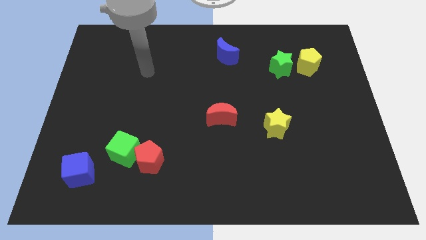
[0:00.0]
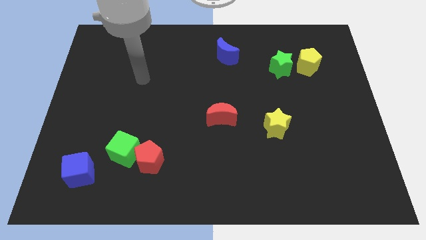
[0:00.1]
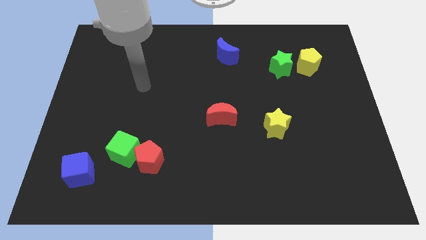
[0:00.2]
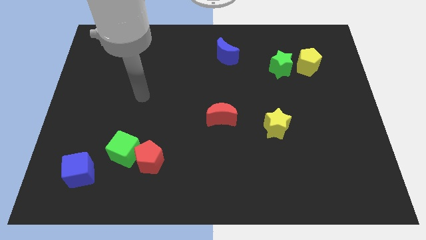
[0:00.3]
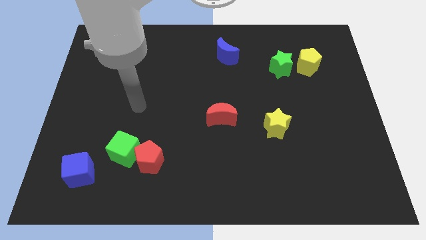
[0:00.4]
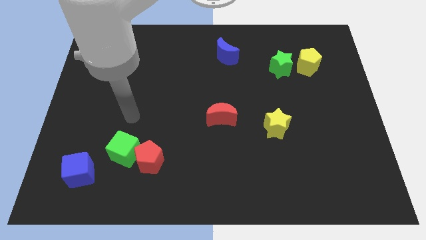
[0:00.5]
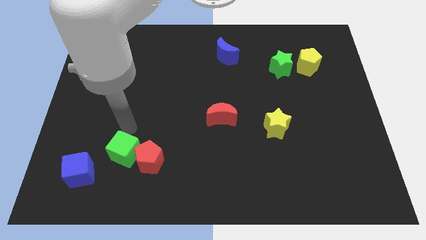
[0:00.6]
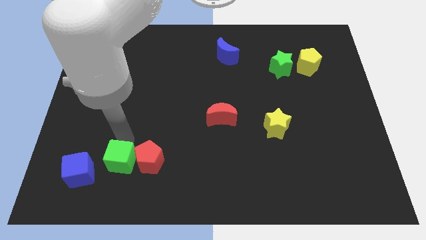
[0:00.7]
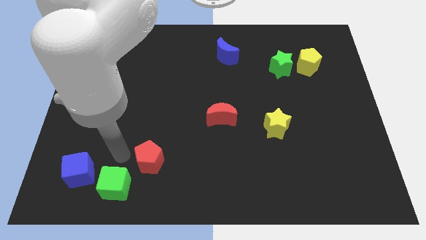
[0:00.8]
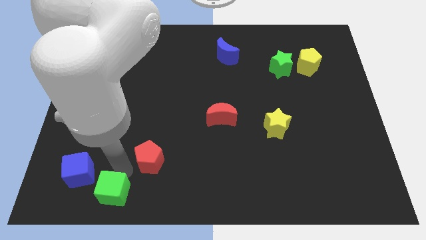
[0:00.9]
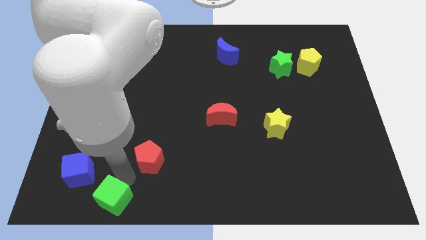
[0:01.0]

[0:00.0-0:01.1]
move the red pentagon away from the green cube

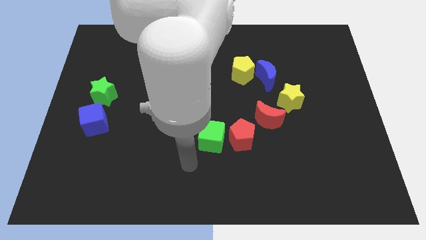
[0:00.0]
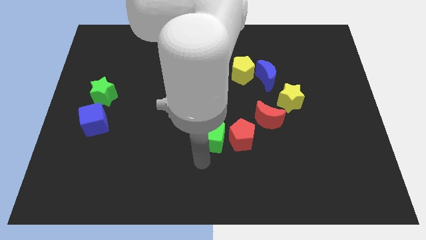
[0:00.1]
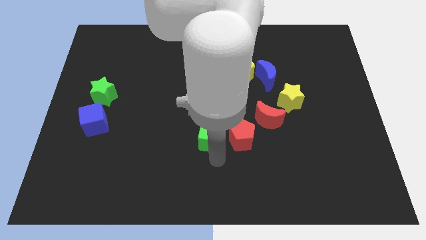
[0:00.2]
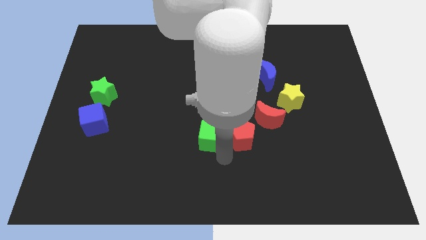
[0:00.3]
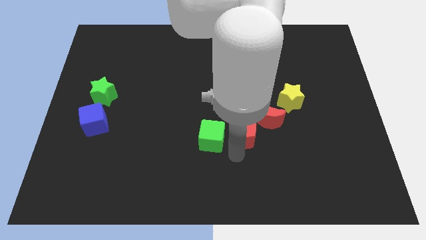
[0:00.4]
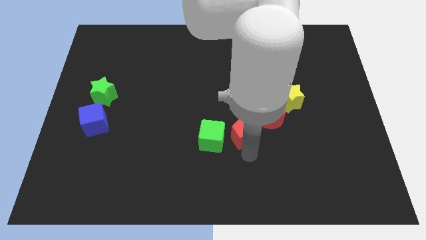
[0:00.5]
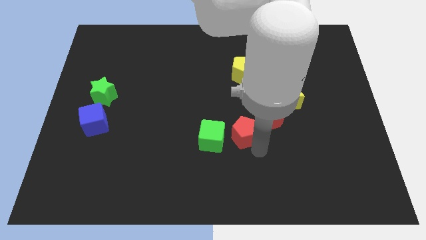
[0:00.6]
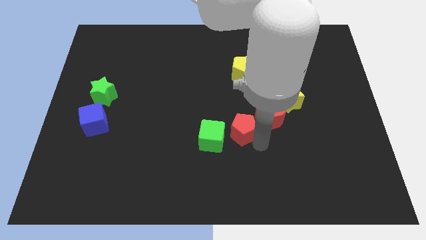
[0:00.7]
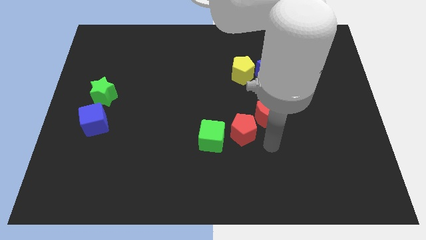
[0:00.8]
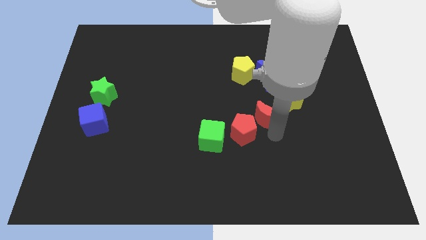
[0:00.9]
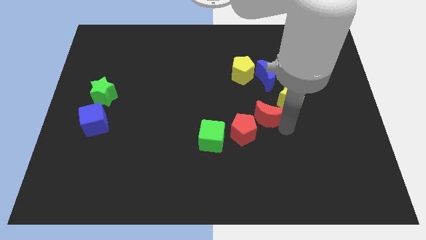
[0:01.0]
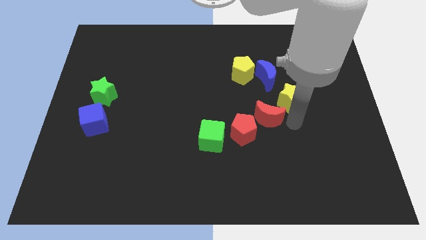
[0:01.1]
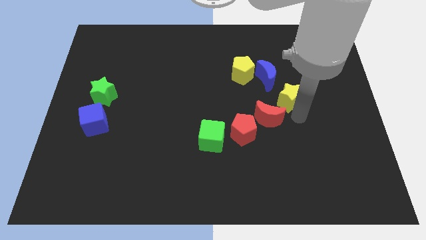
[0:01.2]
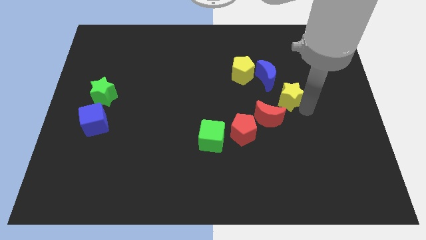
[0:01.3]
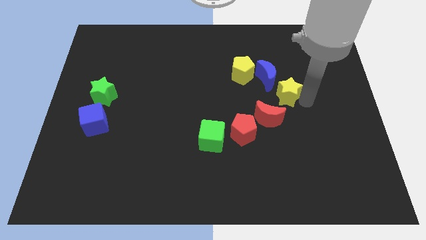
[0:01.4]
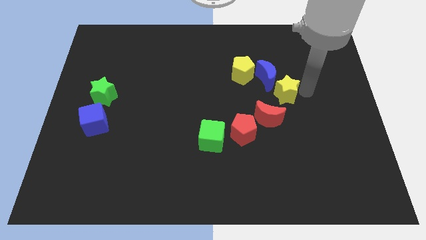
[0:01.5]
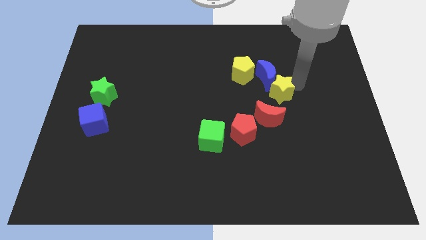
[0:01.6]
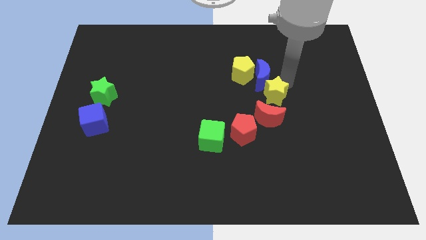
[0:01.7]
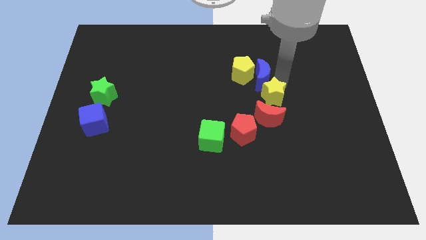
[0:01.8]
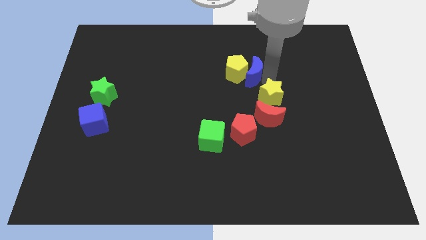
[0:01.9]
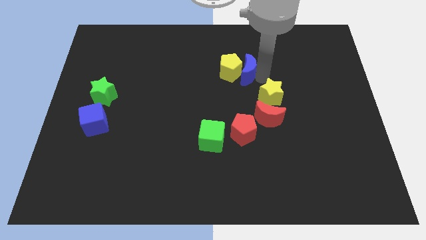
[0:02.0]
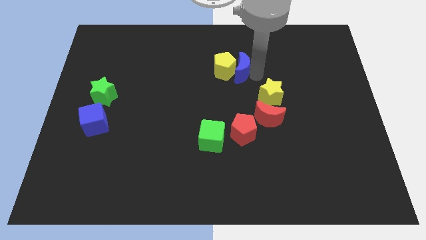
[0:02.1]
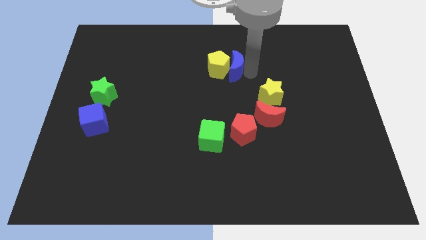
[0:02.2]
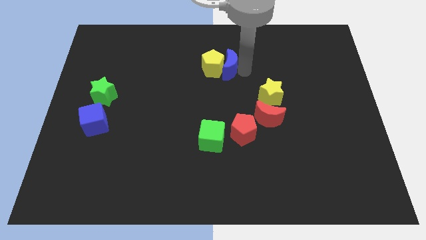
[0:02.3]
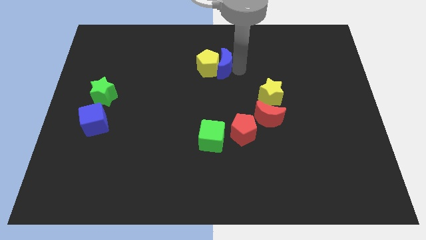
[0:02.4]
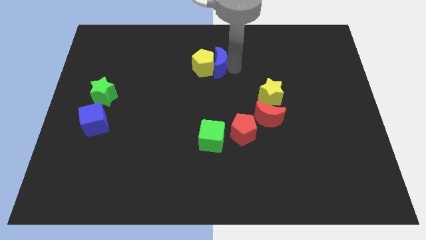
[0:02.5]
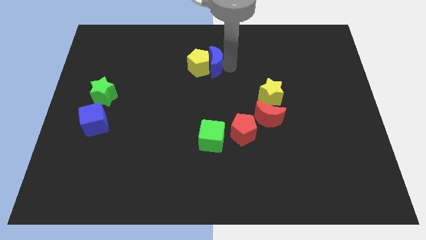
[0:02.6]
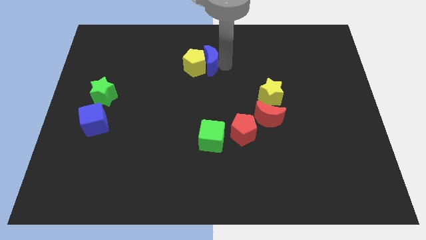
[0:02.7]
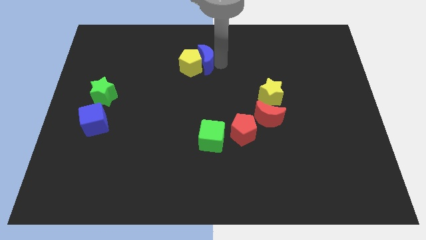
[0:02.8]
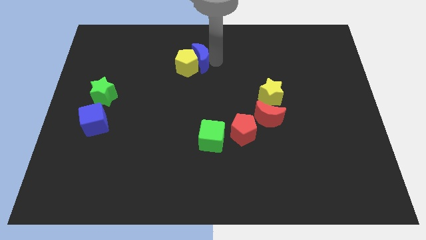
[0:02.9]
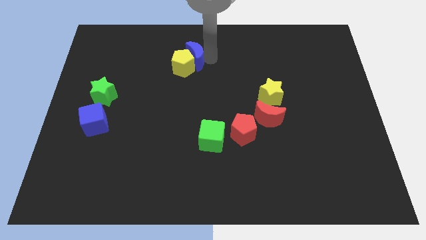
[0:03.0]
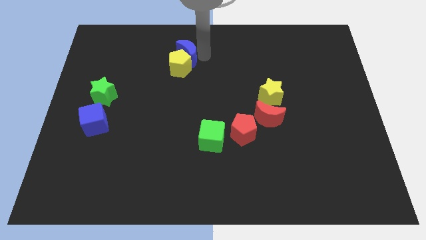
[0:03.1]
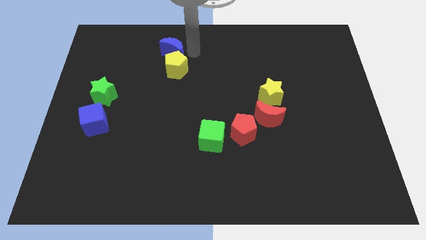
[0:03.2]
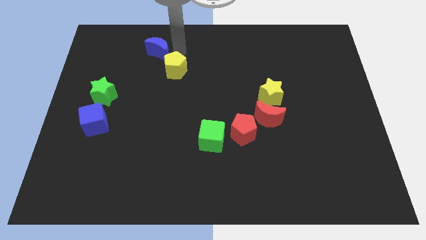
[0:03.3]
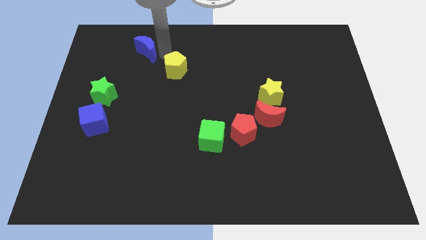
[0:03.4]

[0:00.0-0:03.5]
pull the yellow pentagon apart from the blue moon

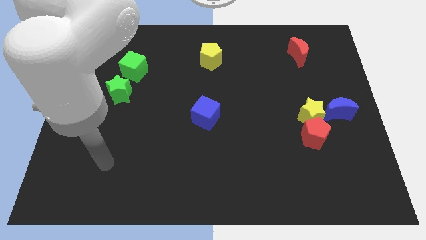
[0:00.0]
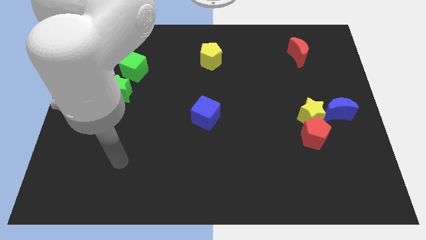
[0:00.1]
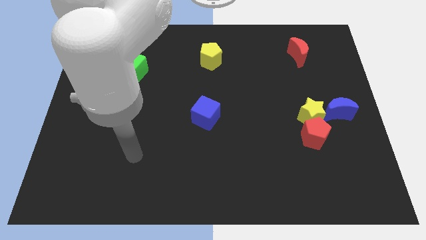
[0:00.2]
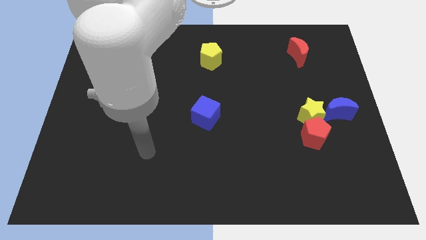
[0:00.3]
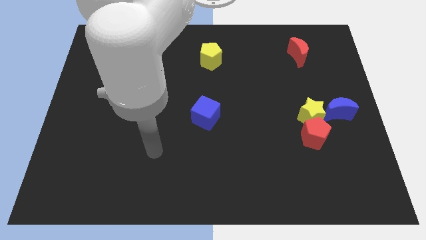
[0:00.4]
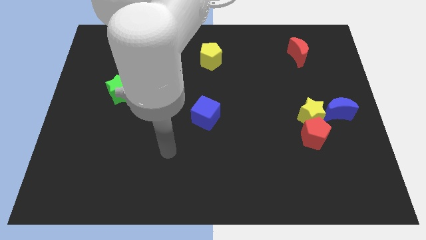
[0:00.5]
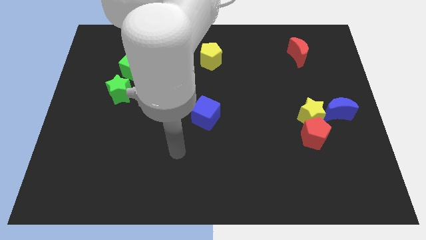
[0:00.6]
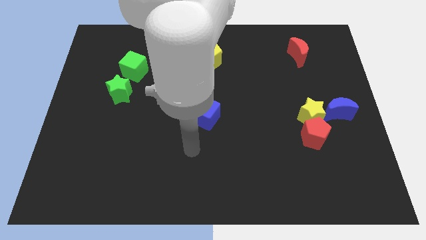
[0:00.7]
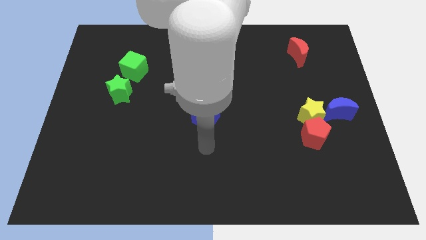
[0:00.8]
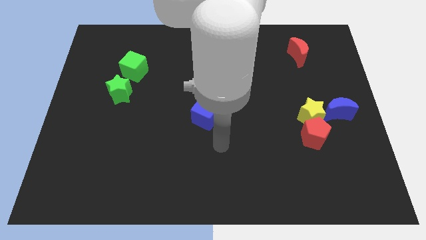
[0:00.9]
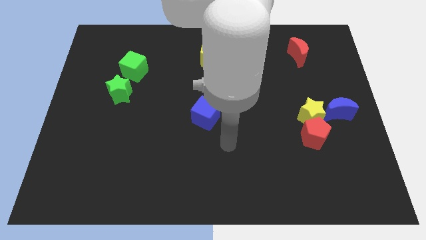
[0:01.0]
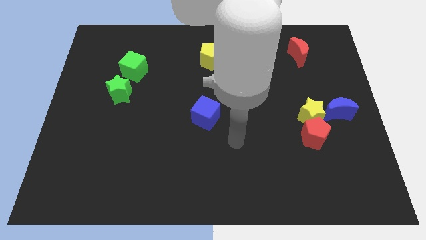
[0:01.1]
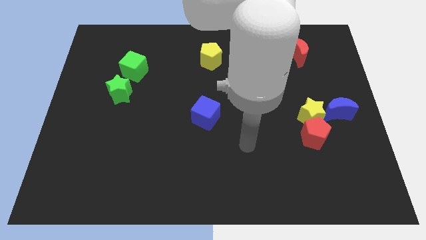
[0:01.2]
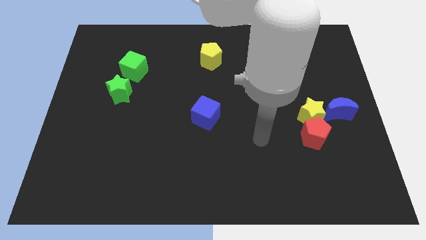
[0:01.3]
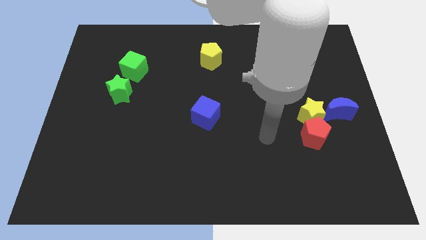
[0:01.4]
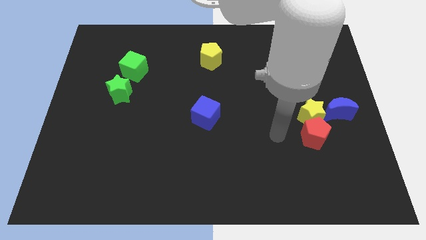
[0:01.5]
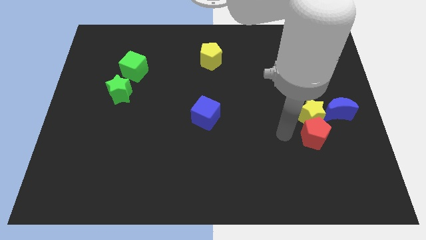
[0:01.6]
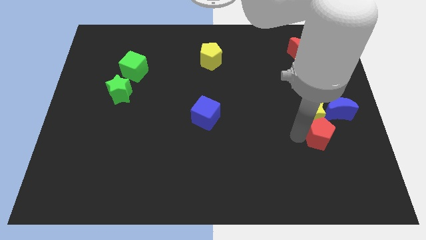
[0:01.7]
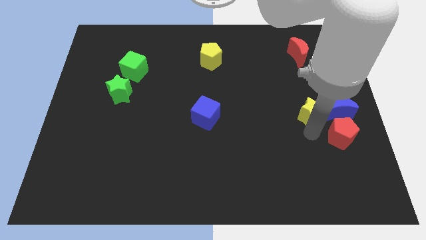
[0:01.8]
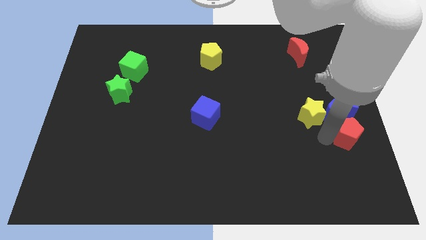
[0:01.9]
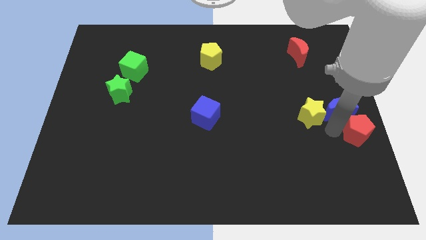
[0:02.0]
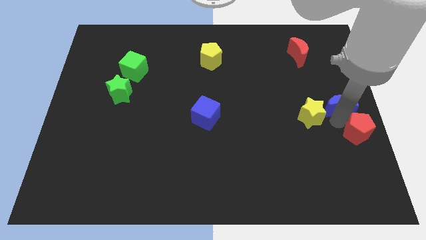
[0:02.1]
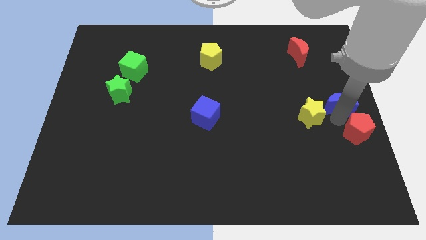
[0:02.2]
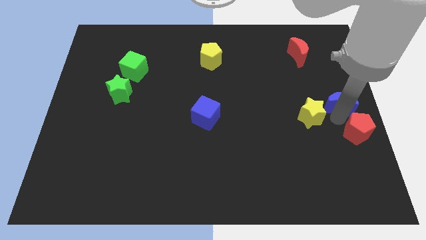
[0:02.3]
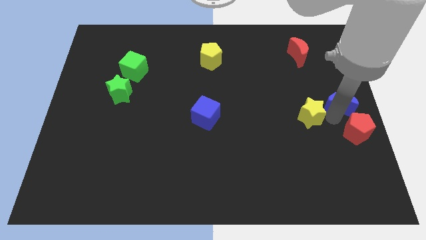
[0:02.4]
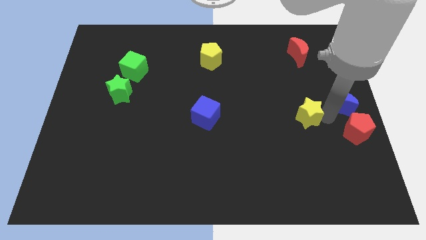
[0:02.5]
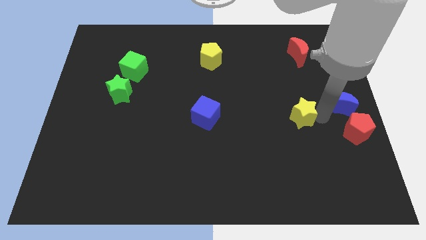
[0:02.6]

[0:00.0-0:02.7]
separate the yellow star from the red pentagon and blue moon

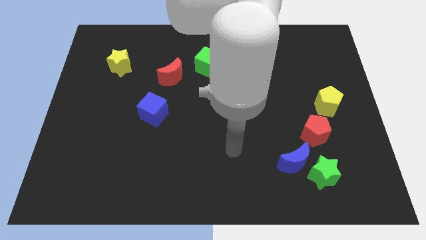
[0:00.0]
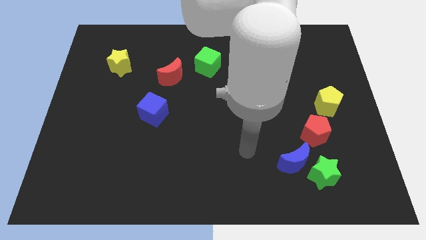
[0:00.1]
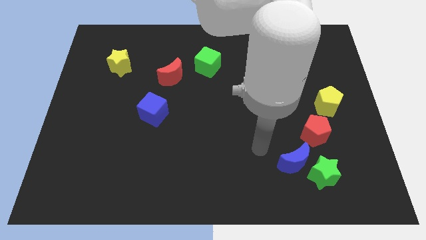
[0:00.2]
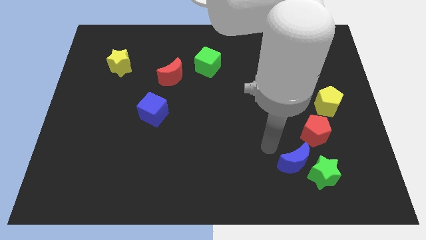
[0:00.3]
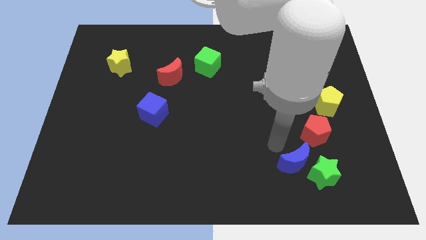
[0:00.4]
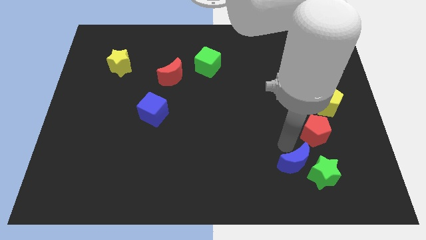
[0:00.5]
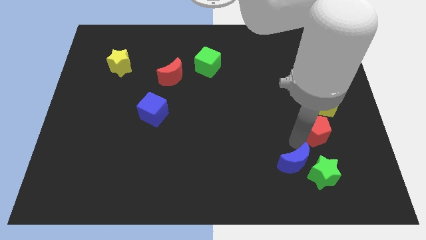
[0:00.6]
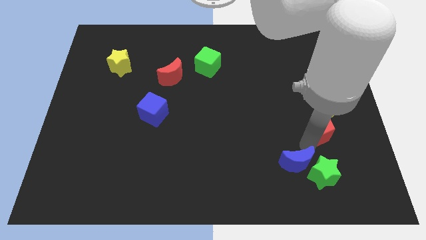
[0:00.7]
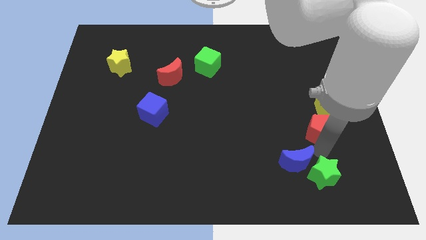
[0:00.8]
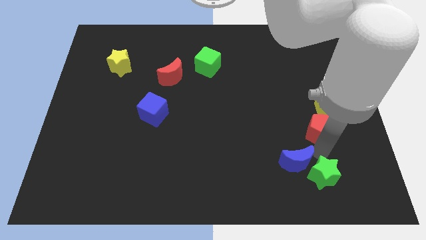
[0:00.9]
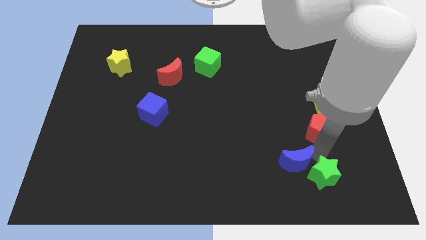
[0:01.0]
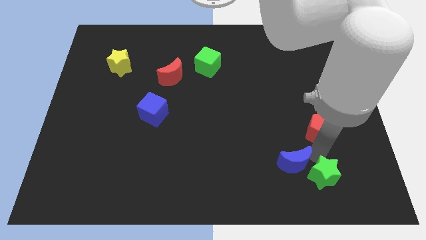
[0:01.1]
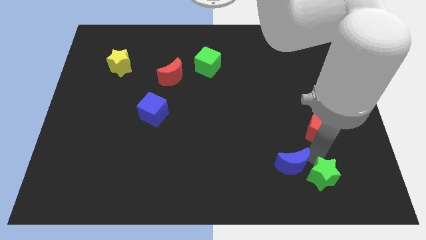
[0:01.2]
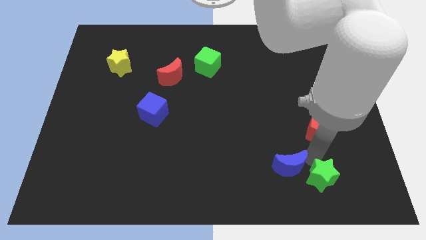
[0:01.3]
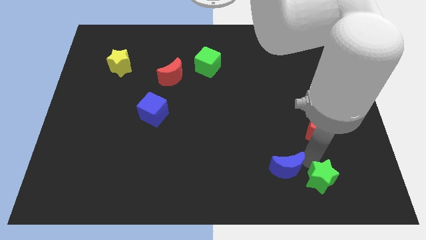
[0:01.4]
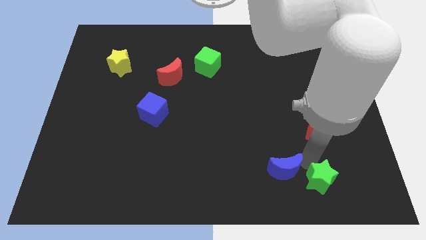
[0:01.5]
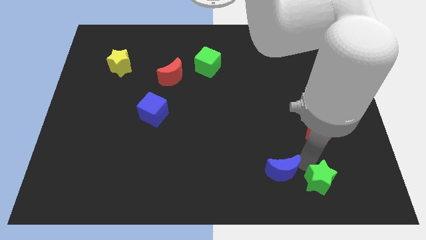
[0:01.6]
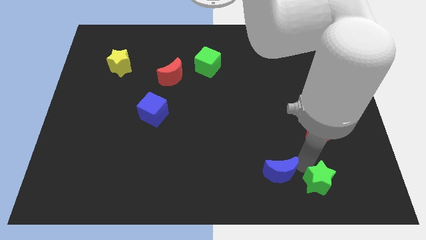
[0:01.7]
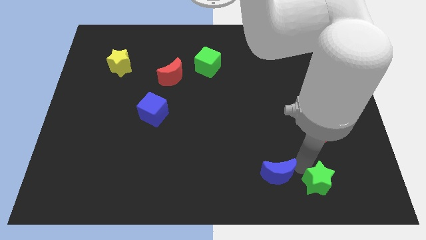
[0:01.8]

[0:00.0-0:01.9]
move the blue moon away from the green star and red pentagon
